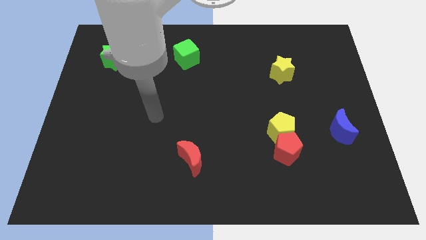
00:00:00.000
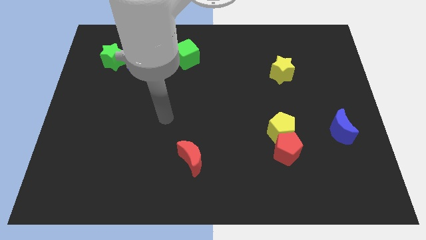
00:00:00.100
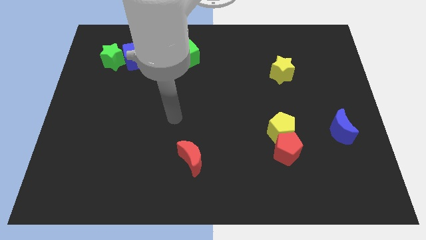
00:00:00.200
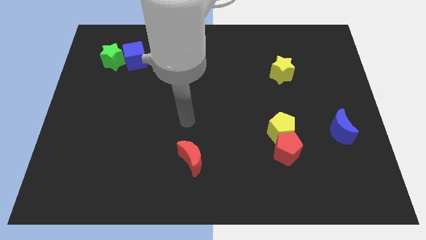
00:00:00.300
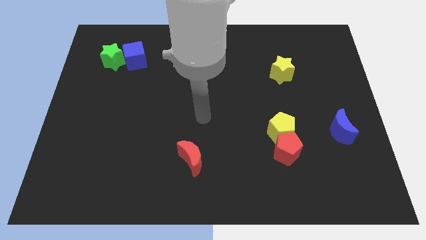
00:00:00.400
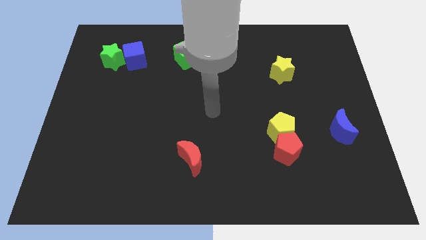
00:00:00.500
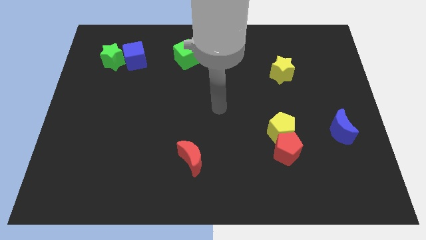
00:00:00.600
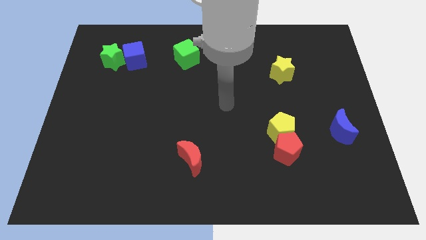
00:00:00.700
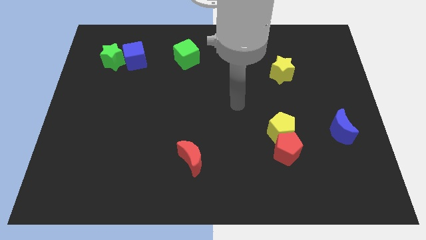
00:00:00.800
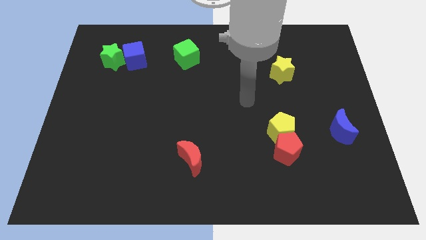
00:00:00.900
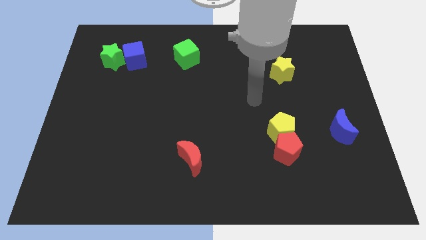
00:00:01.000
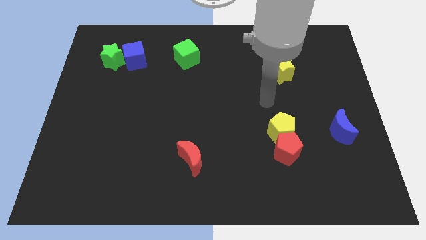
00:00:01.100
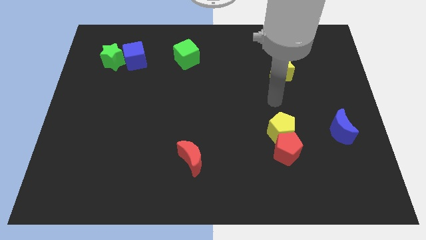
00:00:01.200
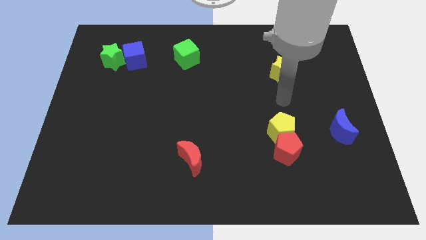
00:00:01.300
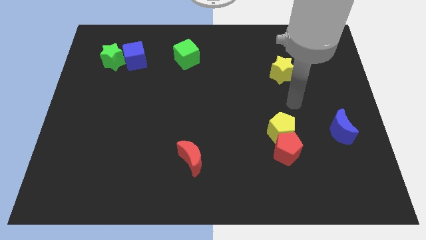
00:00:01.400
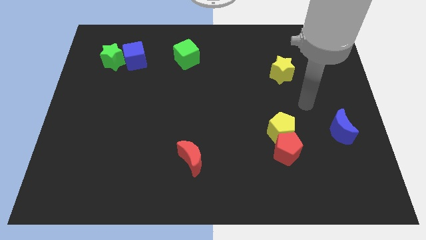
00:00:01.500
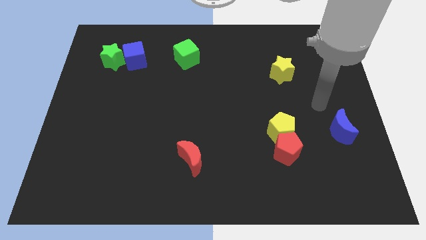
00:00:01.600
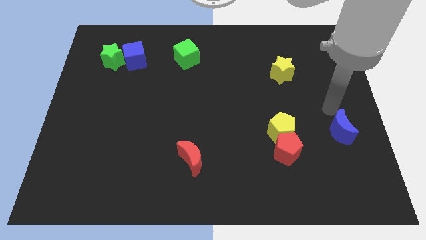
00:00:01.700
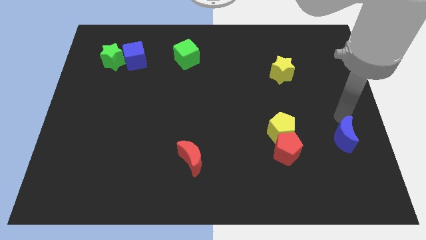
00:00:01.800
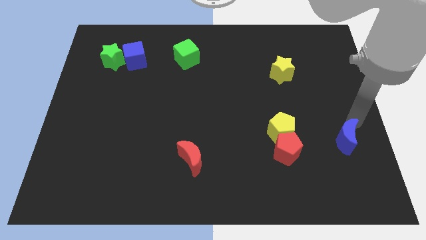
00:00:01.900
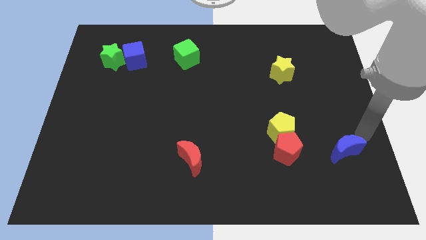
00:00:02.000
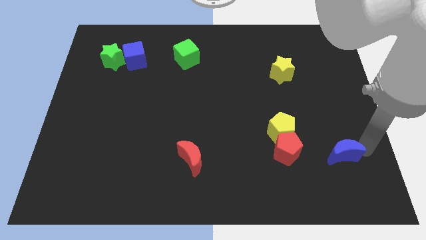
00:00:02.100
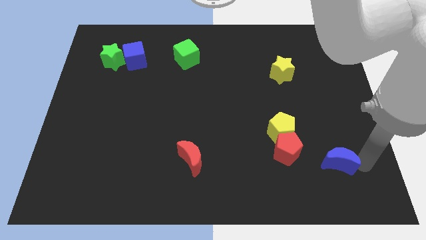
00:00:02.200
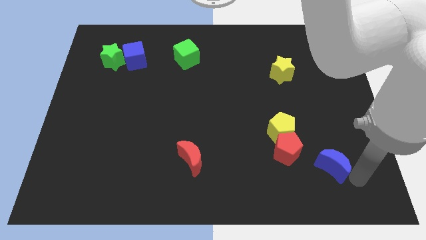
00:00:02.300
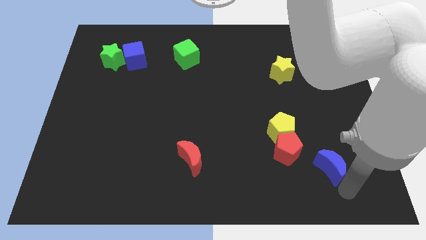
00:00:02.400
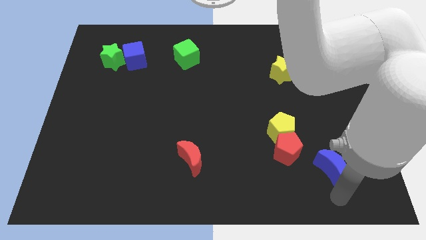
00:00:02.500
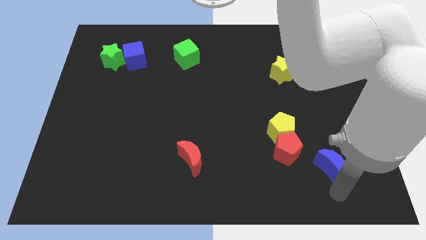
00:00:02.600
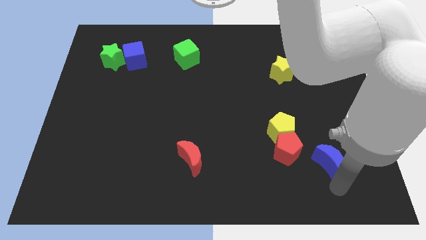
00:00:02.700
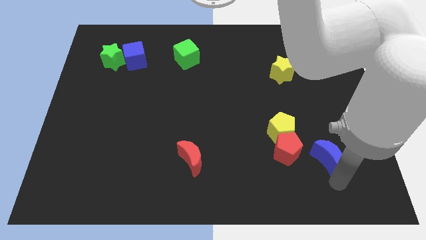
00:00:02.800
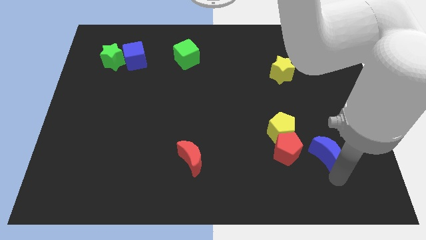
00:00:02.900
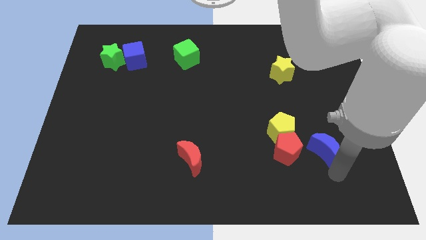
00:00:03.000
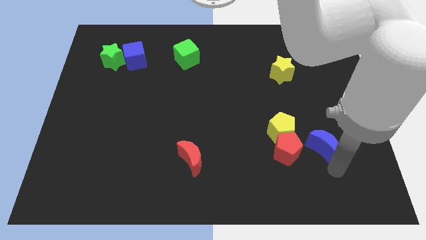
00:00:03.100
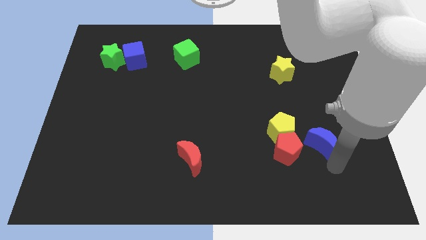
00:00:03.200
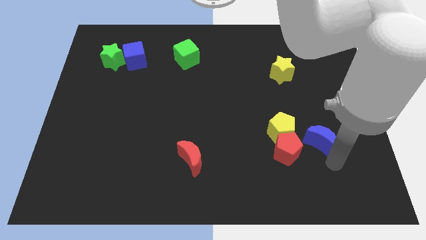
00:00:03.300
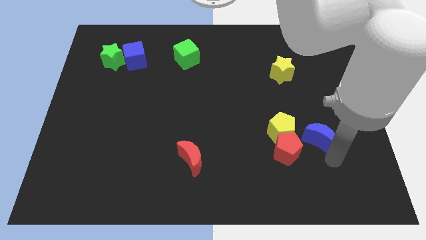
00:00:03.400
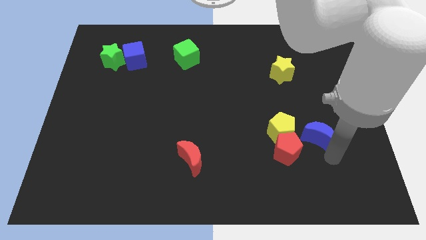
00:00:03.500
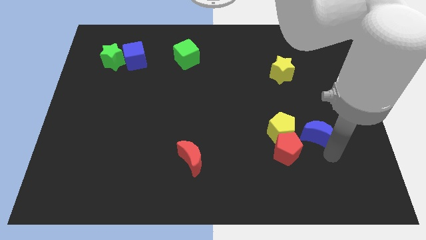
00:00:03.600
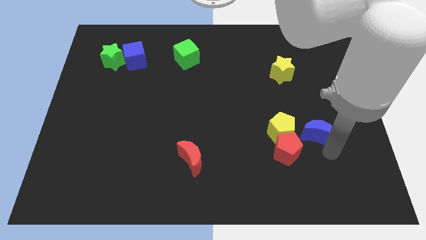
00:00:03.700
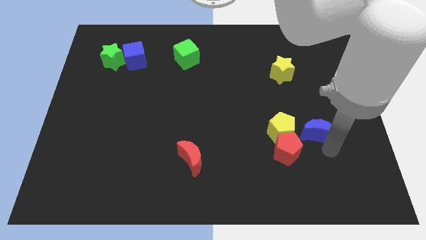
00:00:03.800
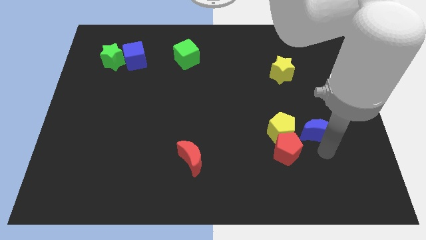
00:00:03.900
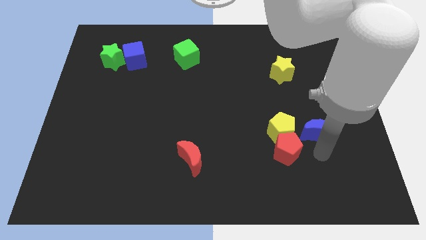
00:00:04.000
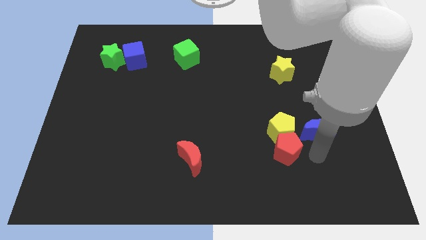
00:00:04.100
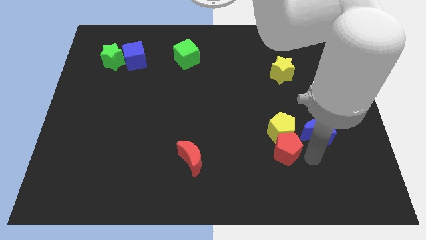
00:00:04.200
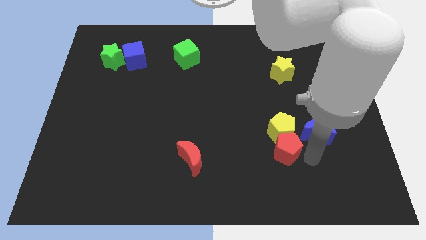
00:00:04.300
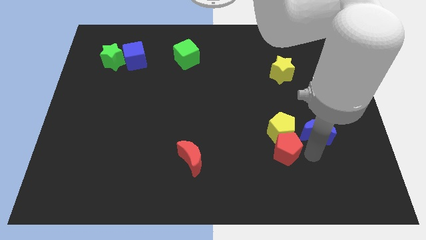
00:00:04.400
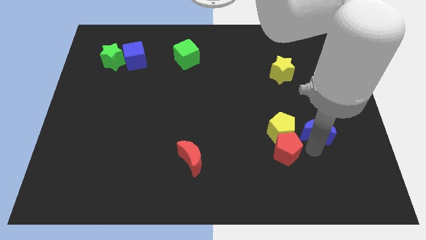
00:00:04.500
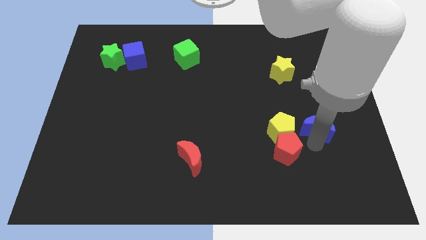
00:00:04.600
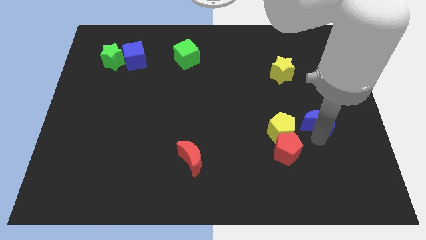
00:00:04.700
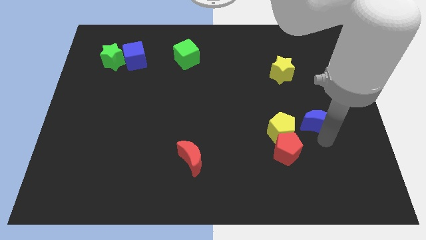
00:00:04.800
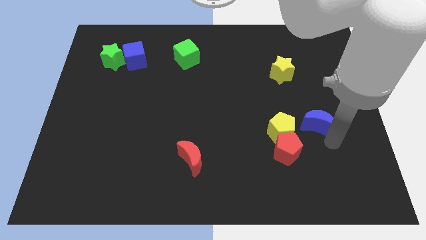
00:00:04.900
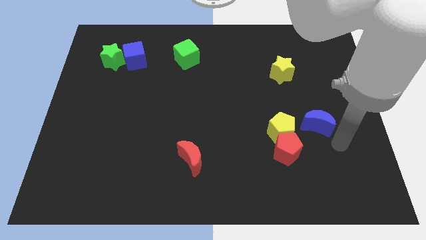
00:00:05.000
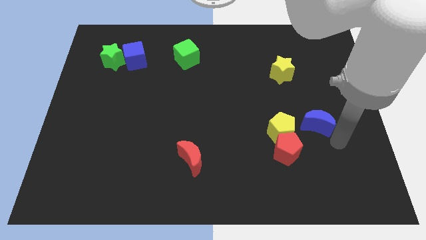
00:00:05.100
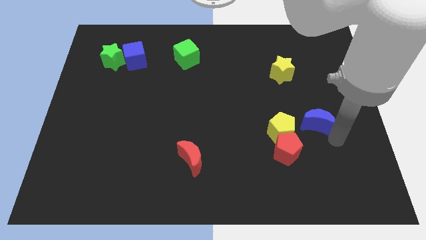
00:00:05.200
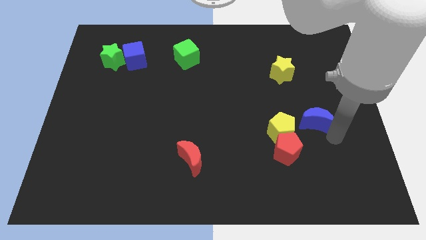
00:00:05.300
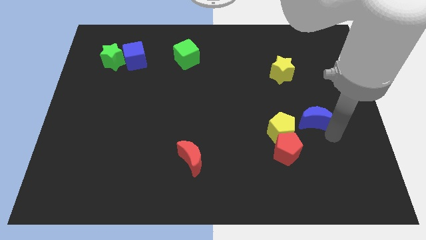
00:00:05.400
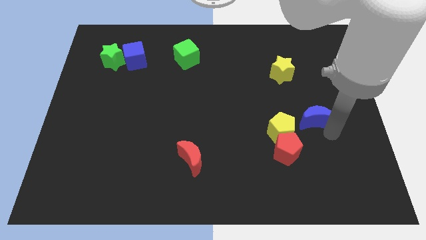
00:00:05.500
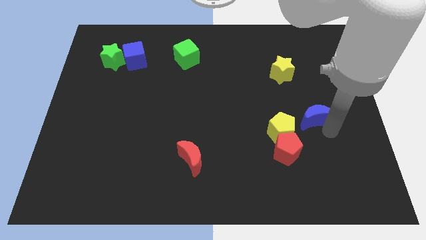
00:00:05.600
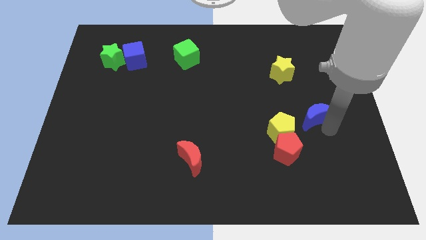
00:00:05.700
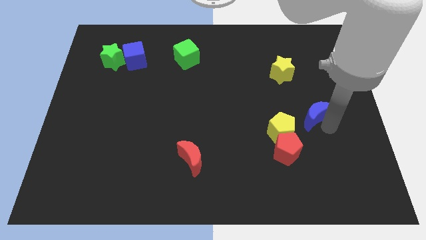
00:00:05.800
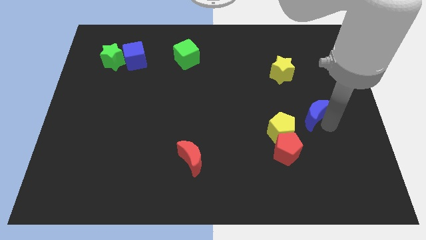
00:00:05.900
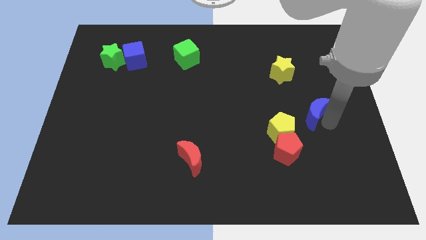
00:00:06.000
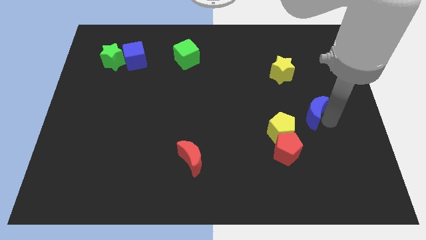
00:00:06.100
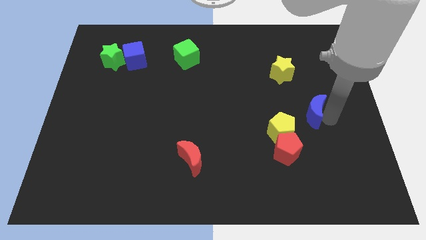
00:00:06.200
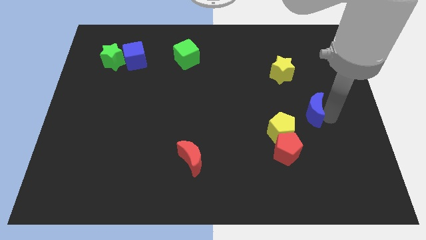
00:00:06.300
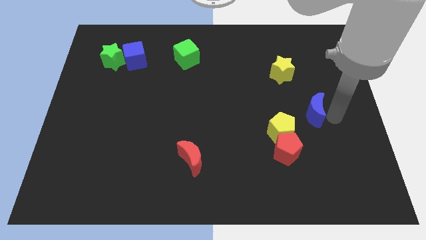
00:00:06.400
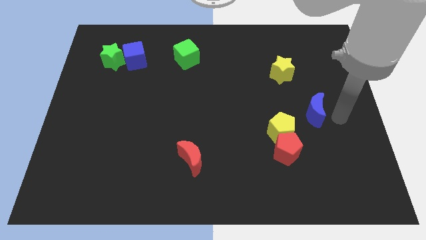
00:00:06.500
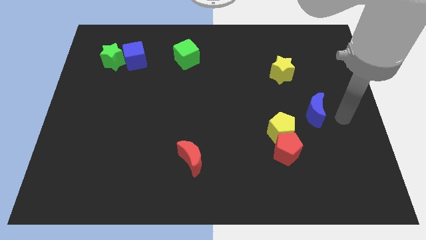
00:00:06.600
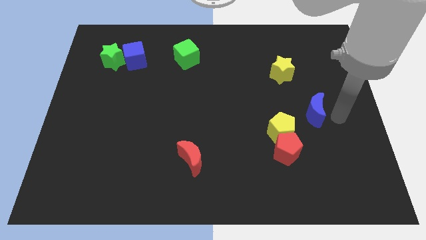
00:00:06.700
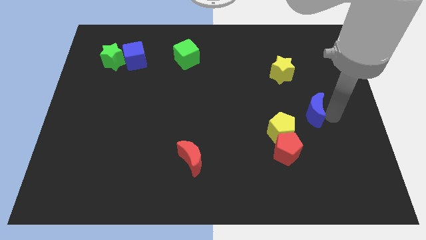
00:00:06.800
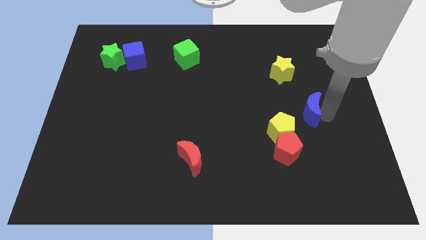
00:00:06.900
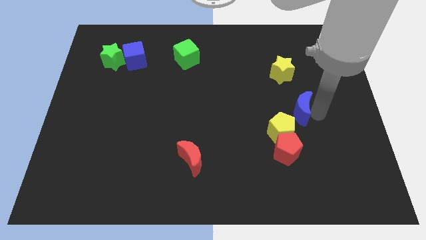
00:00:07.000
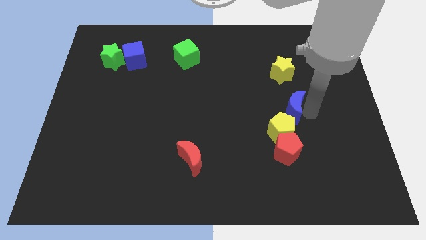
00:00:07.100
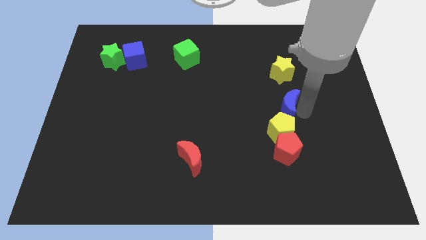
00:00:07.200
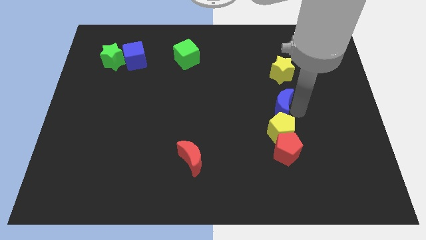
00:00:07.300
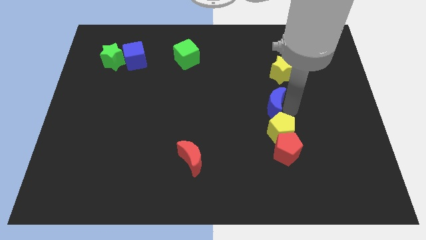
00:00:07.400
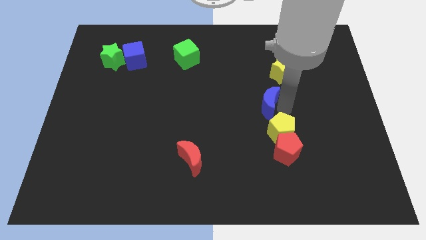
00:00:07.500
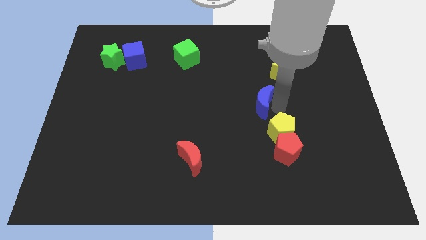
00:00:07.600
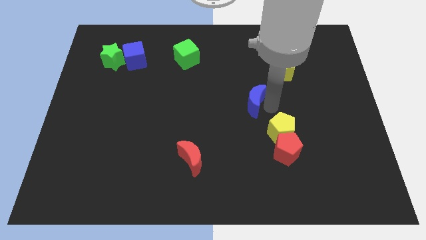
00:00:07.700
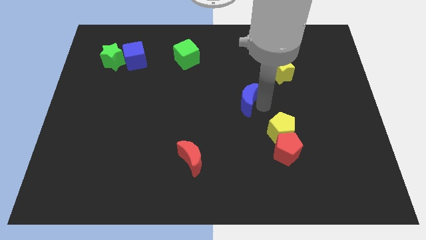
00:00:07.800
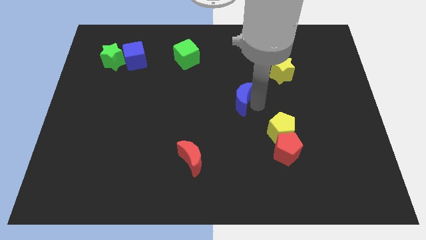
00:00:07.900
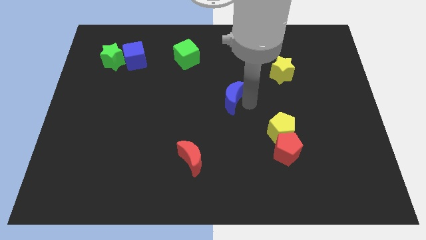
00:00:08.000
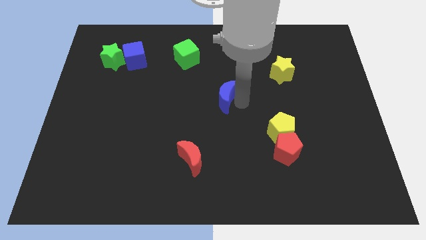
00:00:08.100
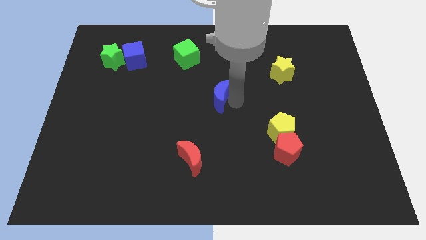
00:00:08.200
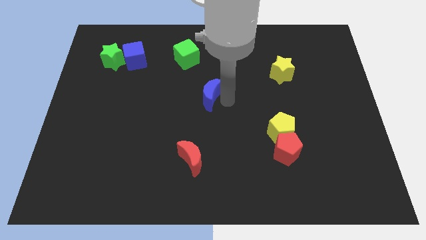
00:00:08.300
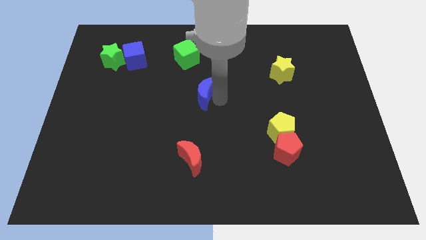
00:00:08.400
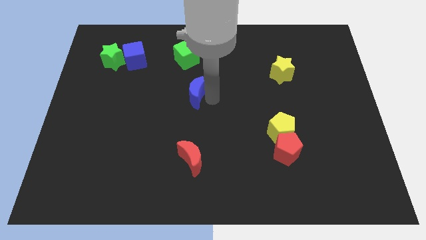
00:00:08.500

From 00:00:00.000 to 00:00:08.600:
push the blue moon to the bottom side of the green cube
